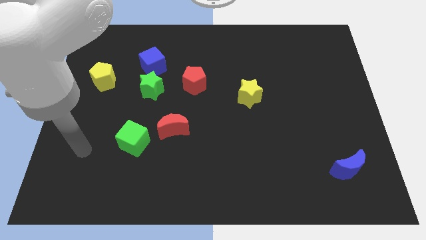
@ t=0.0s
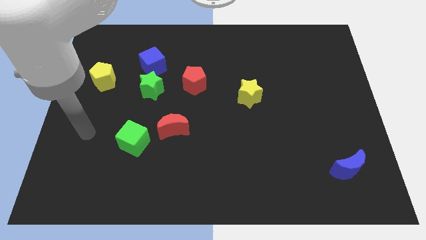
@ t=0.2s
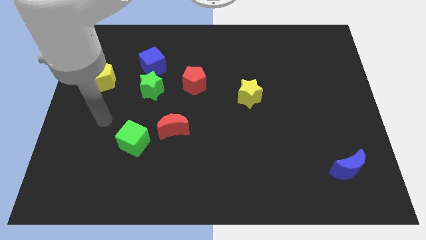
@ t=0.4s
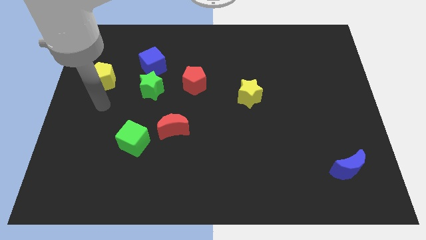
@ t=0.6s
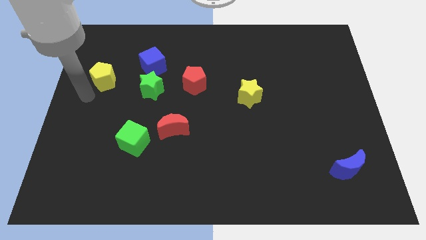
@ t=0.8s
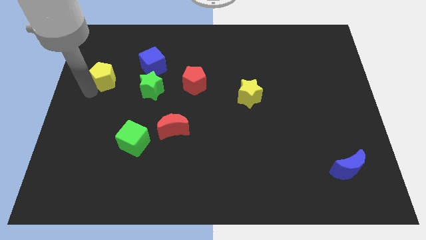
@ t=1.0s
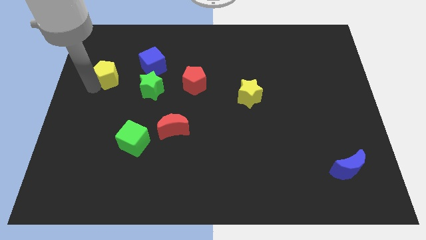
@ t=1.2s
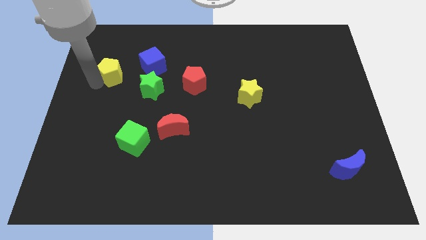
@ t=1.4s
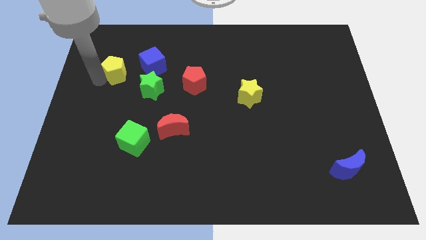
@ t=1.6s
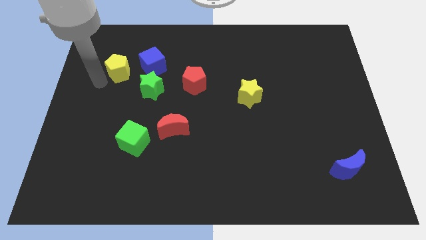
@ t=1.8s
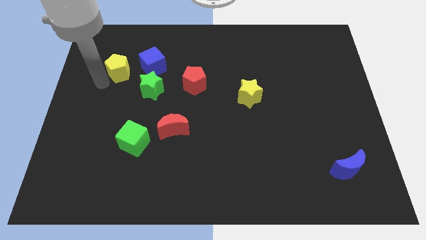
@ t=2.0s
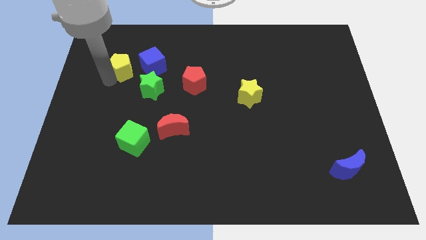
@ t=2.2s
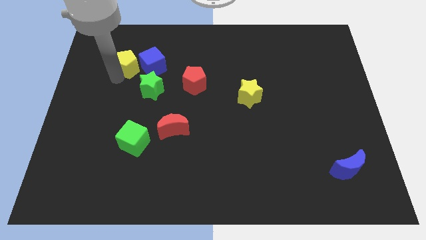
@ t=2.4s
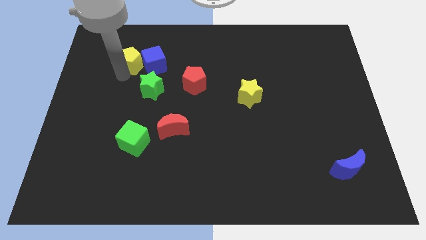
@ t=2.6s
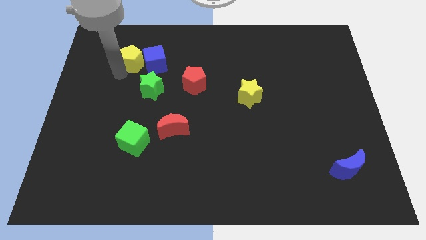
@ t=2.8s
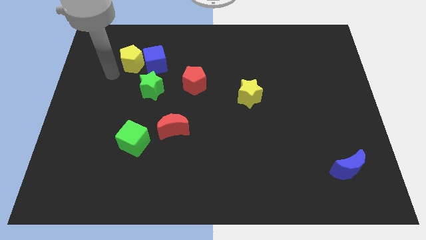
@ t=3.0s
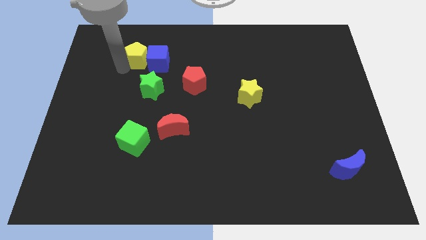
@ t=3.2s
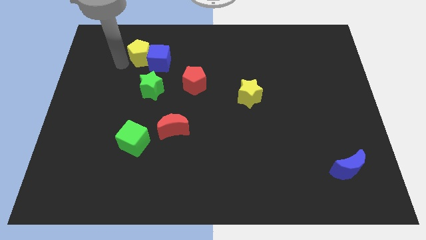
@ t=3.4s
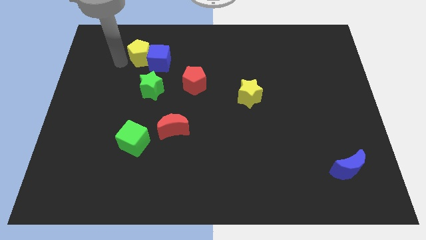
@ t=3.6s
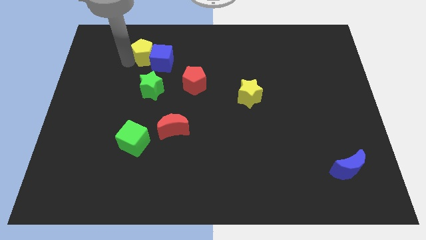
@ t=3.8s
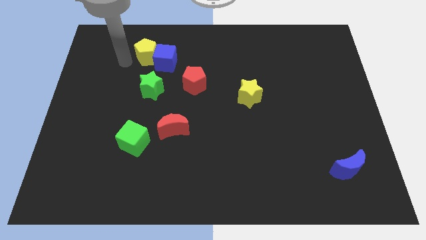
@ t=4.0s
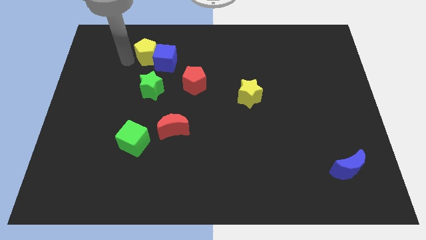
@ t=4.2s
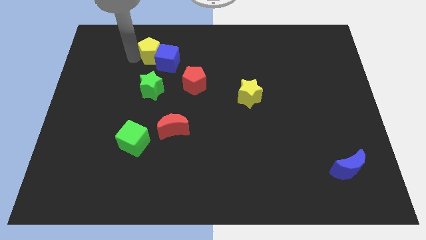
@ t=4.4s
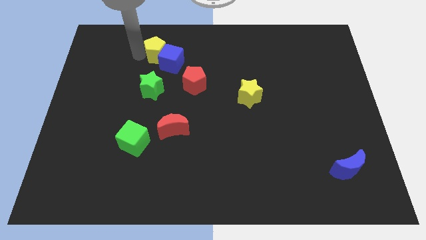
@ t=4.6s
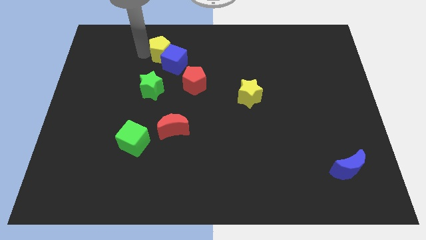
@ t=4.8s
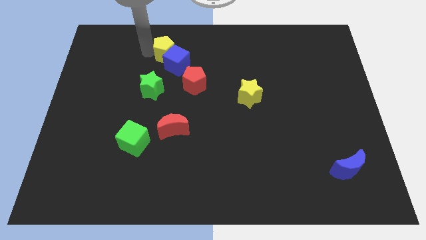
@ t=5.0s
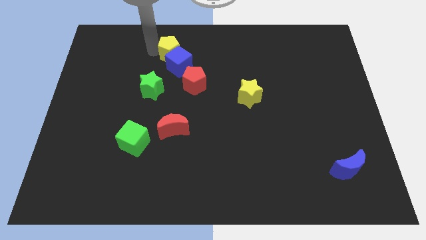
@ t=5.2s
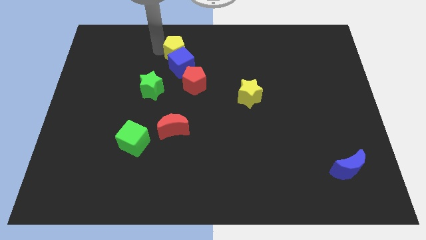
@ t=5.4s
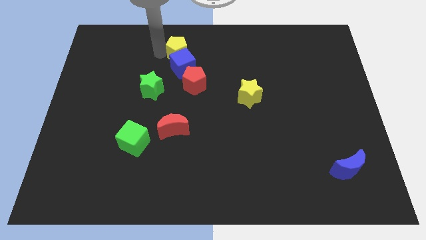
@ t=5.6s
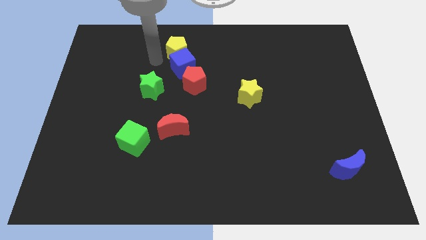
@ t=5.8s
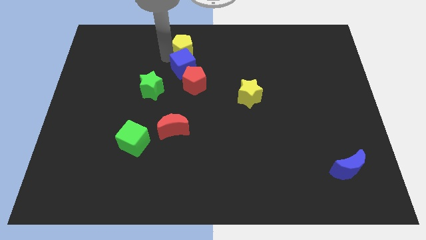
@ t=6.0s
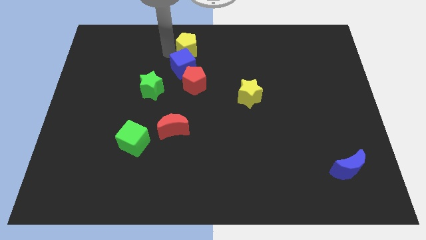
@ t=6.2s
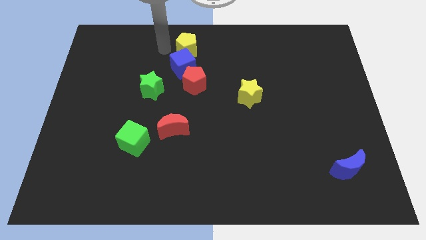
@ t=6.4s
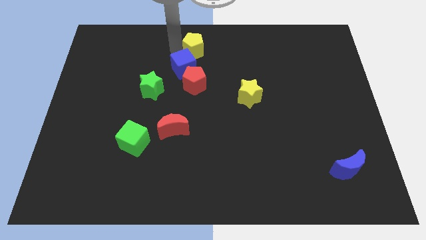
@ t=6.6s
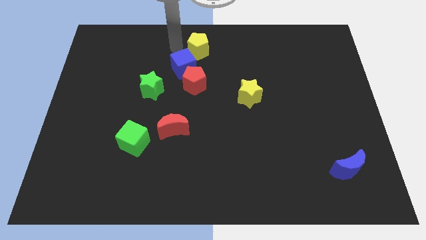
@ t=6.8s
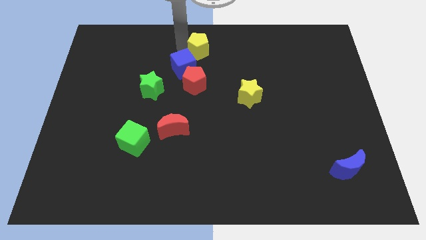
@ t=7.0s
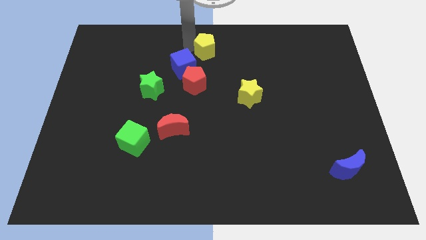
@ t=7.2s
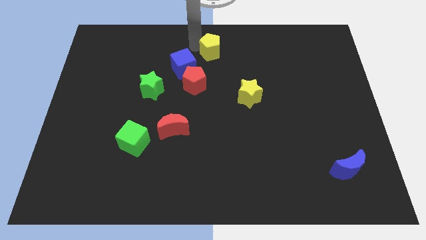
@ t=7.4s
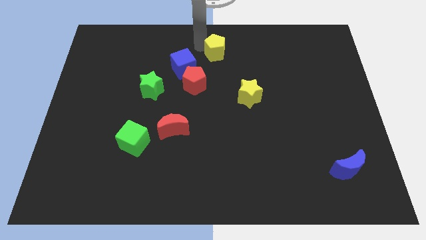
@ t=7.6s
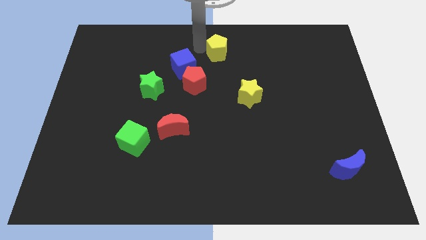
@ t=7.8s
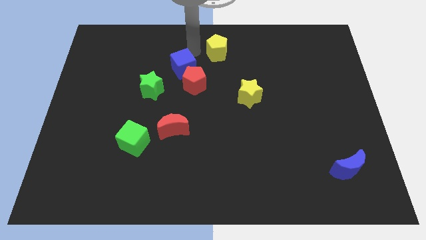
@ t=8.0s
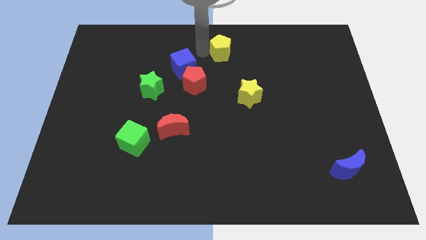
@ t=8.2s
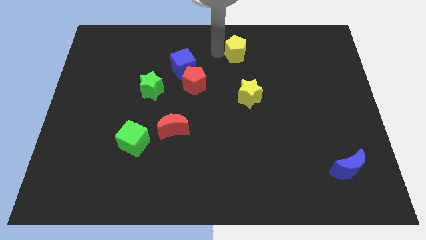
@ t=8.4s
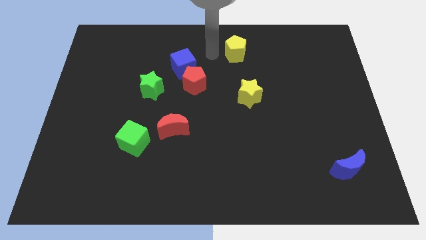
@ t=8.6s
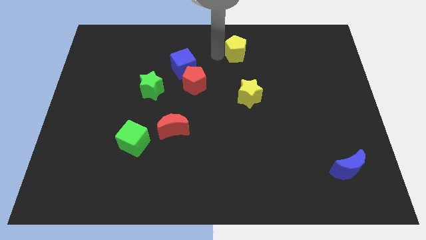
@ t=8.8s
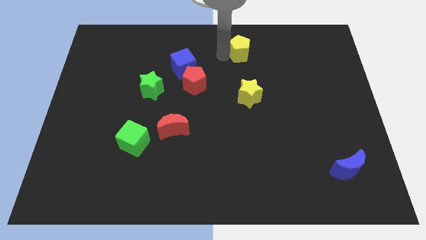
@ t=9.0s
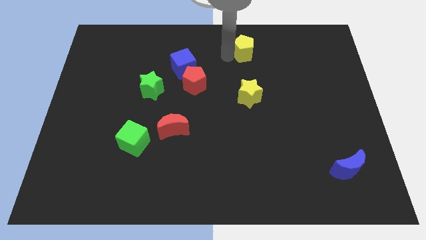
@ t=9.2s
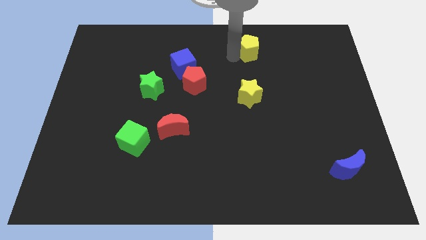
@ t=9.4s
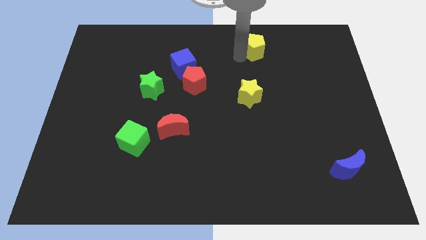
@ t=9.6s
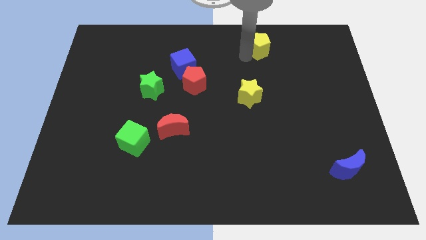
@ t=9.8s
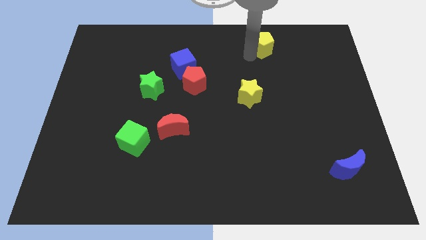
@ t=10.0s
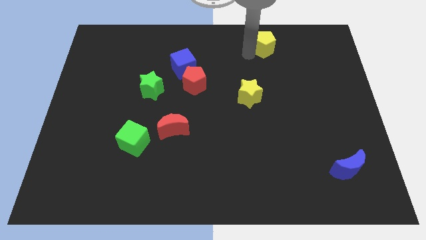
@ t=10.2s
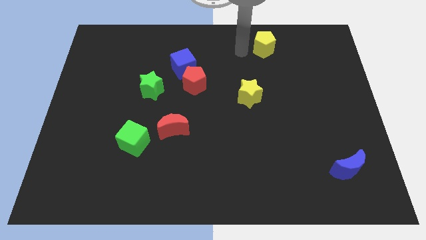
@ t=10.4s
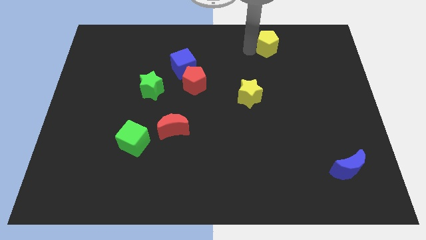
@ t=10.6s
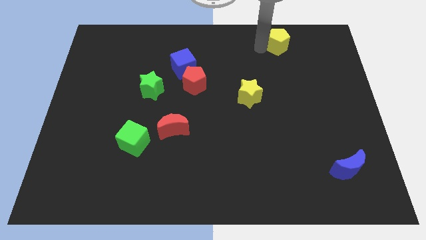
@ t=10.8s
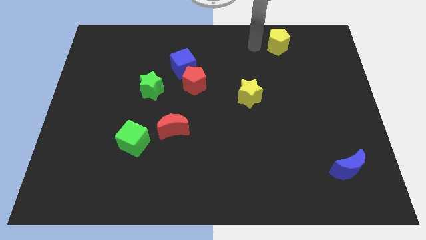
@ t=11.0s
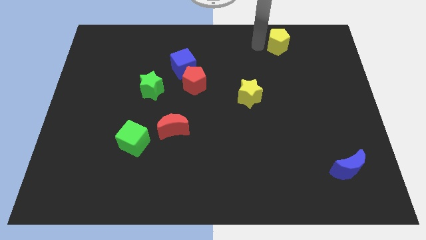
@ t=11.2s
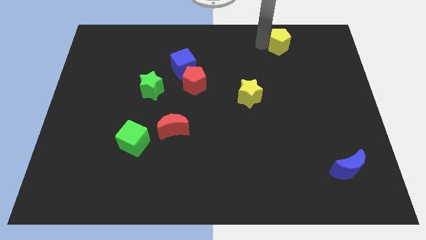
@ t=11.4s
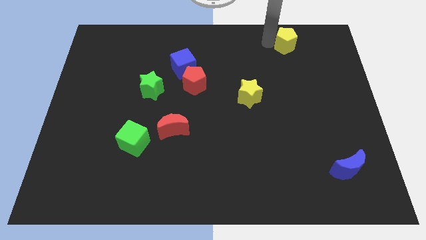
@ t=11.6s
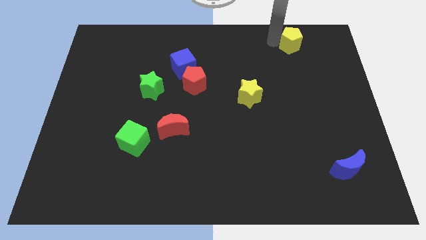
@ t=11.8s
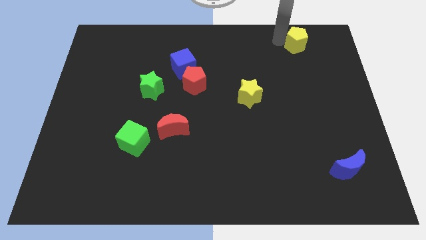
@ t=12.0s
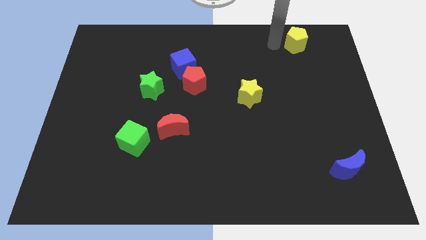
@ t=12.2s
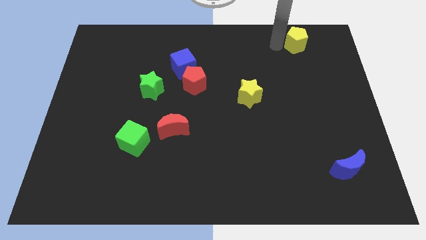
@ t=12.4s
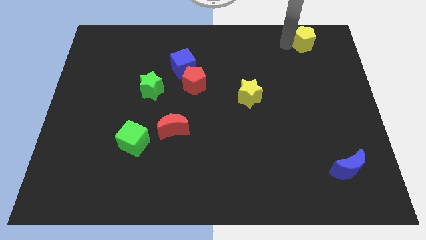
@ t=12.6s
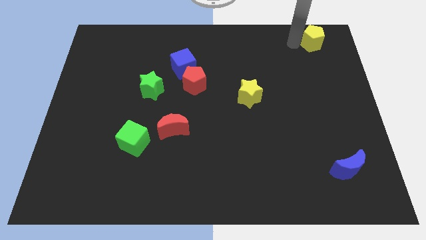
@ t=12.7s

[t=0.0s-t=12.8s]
put the yellow pentagon to the top right of the board

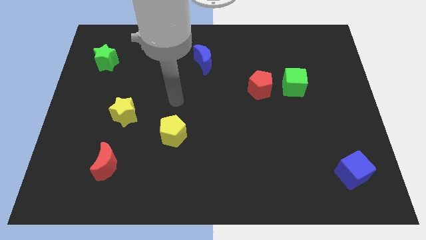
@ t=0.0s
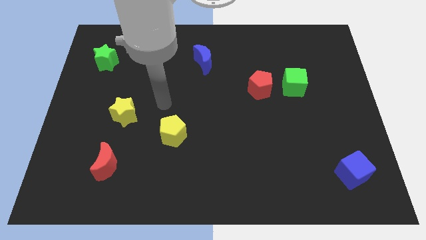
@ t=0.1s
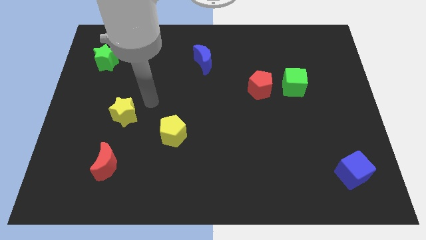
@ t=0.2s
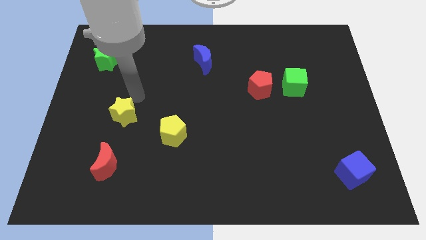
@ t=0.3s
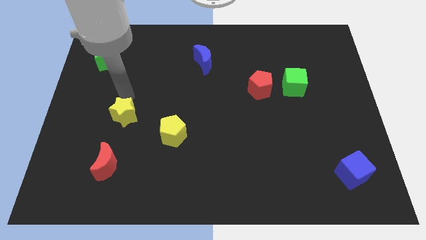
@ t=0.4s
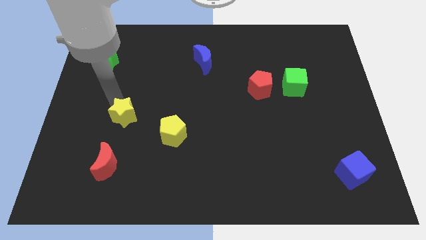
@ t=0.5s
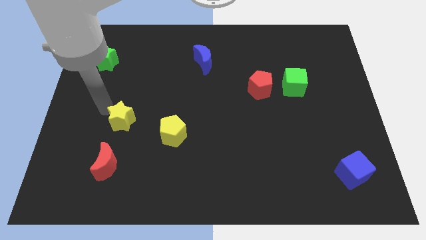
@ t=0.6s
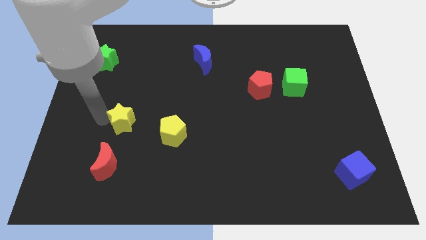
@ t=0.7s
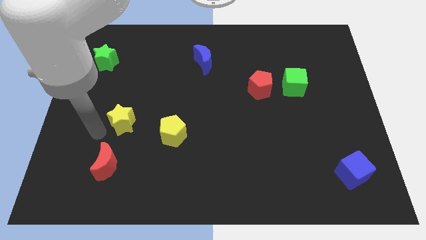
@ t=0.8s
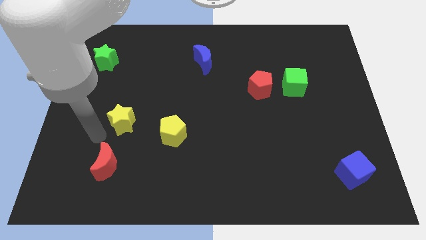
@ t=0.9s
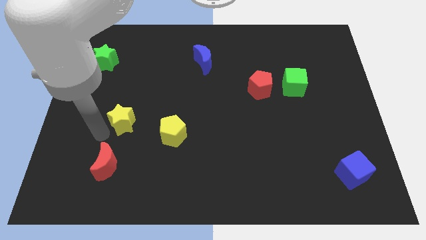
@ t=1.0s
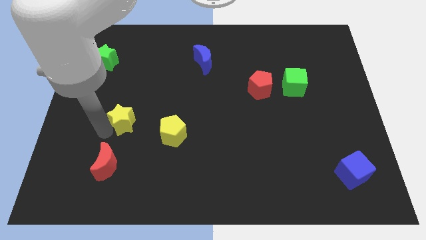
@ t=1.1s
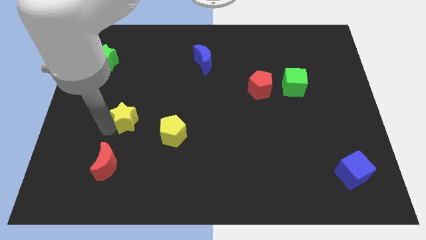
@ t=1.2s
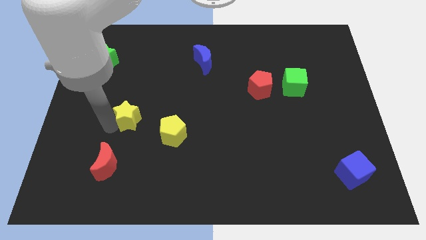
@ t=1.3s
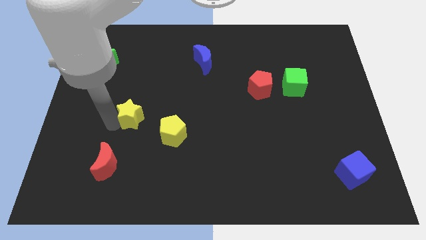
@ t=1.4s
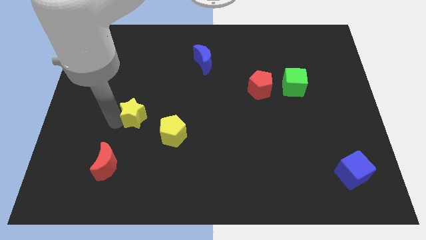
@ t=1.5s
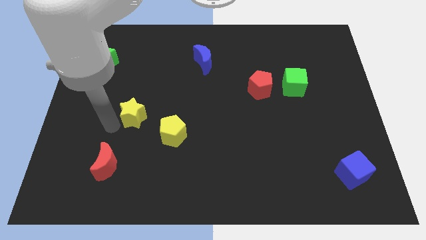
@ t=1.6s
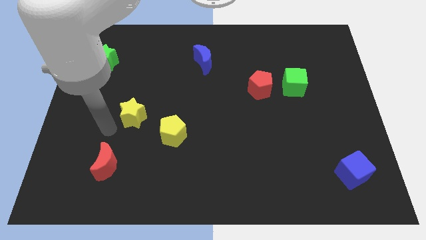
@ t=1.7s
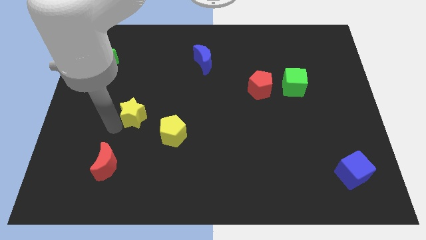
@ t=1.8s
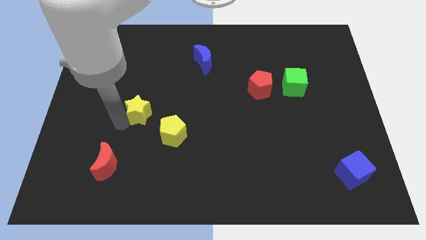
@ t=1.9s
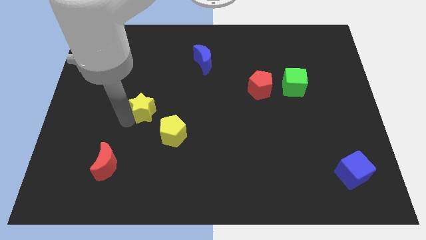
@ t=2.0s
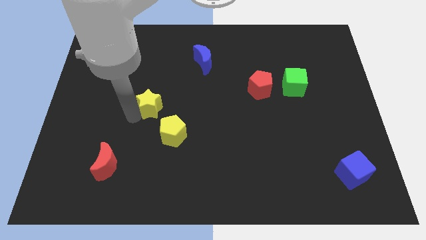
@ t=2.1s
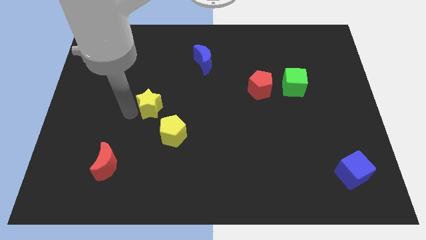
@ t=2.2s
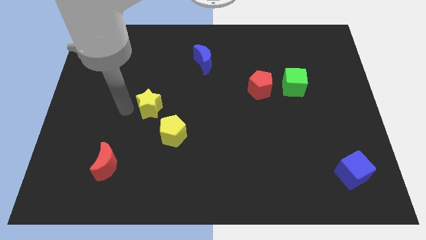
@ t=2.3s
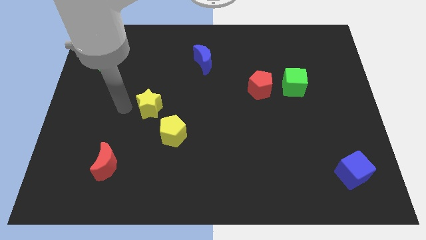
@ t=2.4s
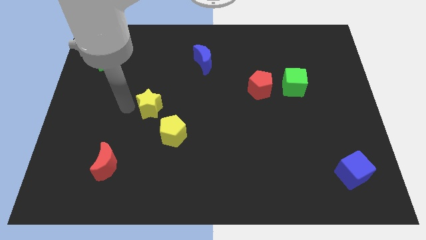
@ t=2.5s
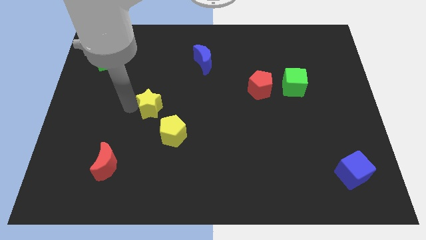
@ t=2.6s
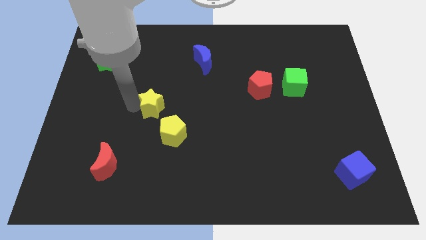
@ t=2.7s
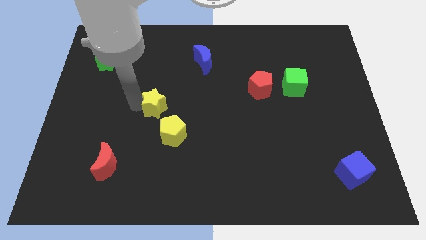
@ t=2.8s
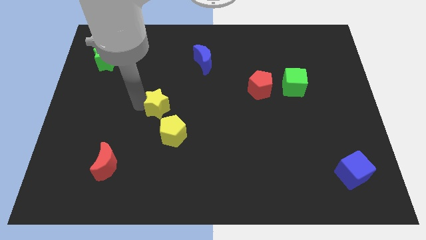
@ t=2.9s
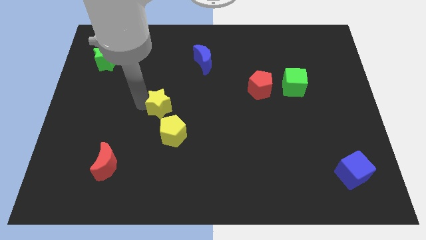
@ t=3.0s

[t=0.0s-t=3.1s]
push the yellow star to the middle
